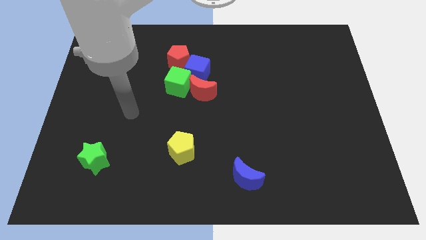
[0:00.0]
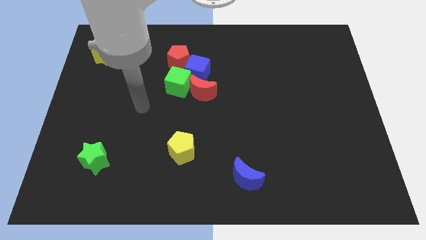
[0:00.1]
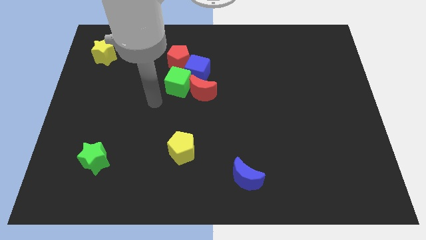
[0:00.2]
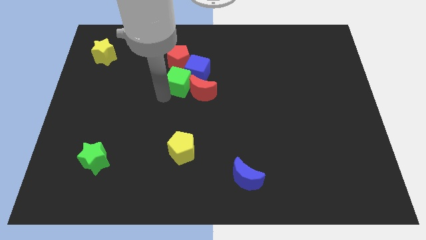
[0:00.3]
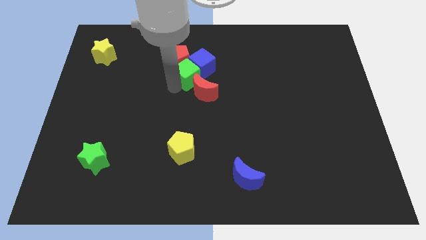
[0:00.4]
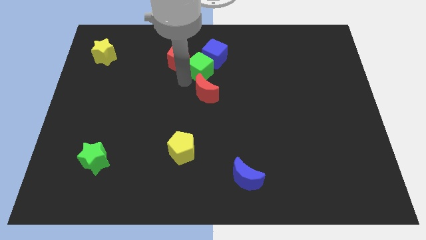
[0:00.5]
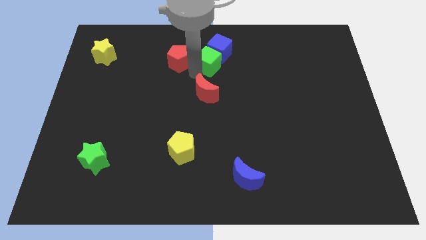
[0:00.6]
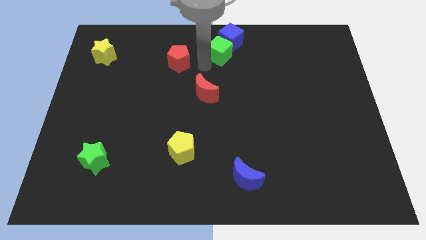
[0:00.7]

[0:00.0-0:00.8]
separate the blue cube from the group

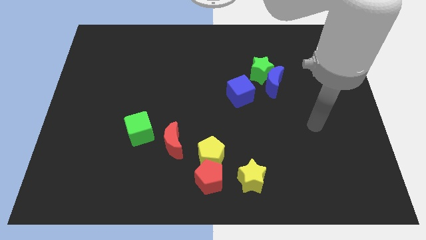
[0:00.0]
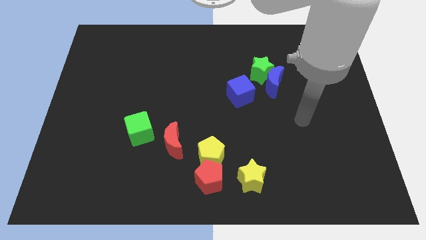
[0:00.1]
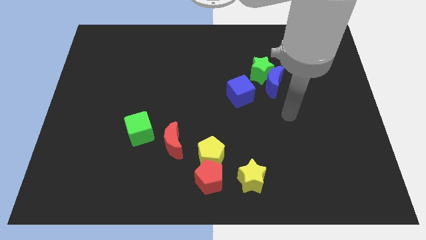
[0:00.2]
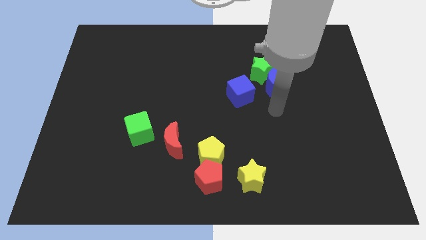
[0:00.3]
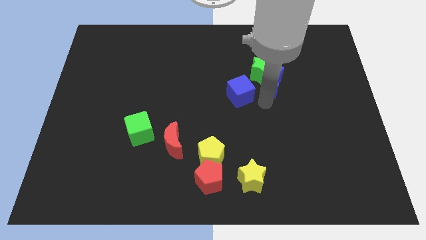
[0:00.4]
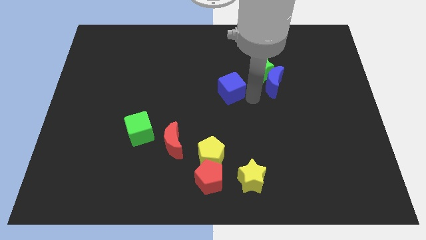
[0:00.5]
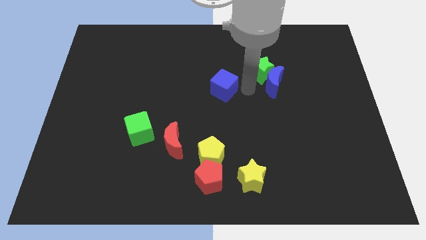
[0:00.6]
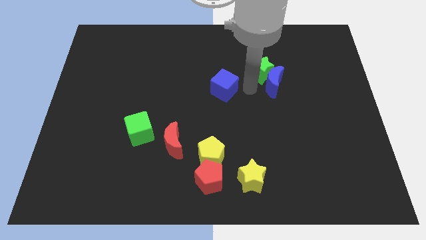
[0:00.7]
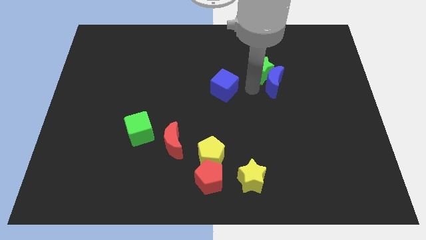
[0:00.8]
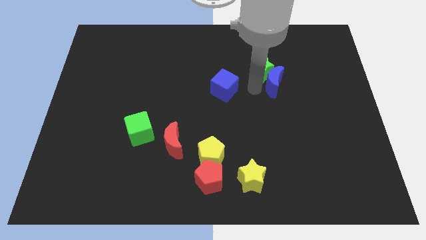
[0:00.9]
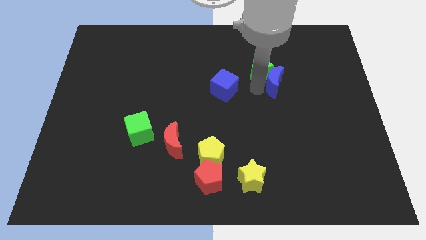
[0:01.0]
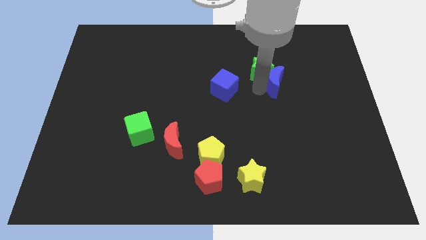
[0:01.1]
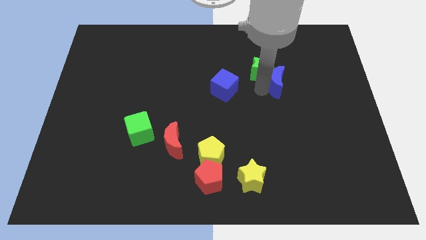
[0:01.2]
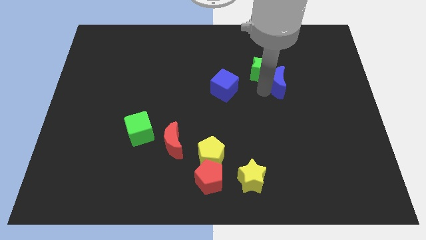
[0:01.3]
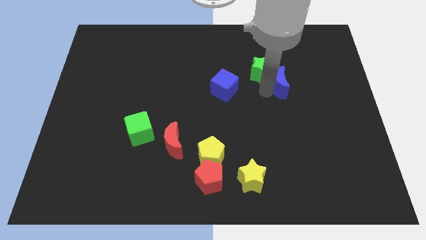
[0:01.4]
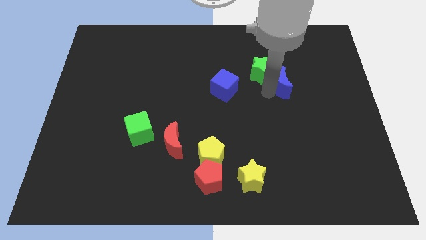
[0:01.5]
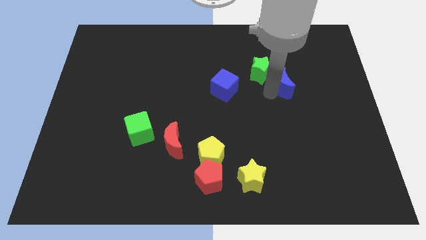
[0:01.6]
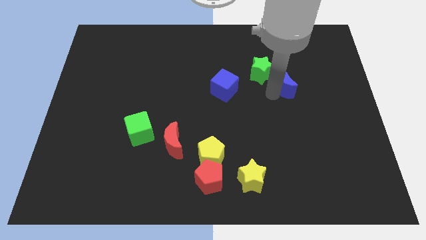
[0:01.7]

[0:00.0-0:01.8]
pull the blue moon apart from the green star and blue cube

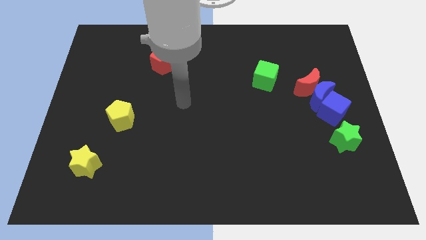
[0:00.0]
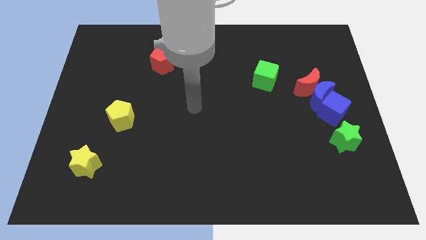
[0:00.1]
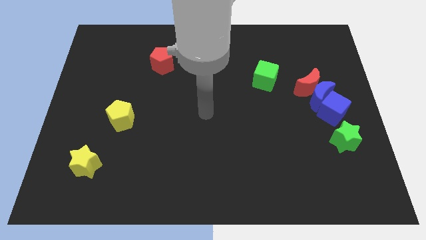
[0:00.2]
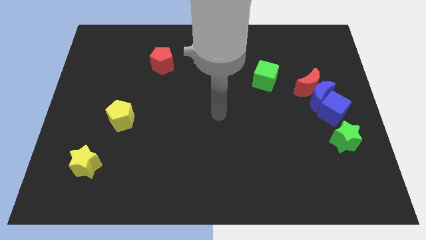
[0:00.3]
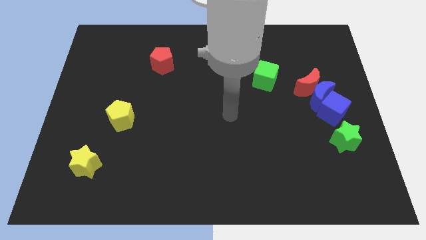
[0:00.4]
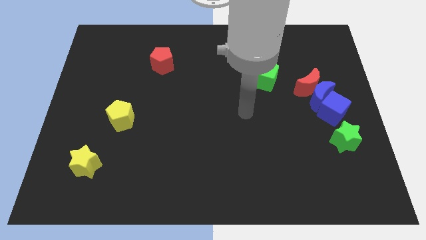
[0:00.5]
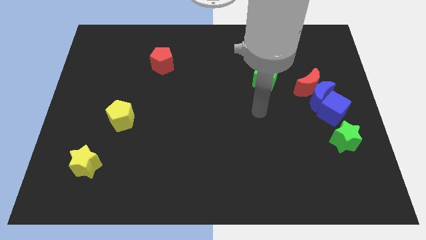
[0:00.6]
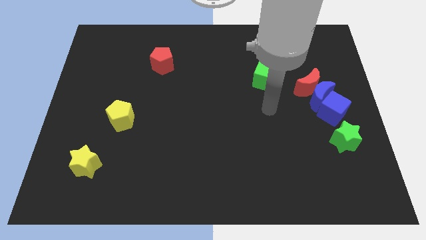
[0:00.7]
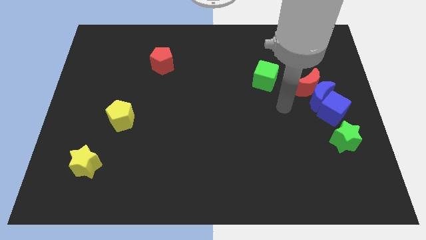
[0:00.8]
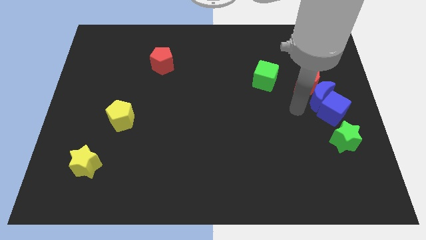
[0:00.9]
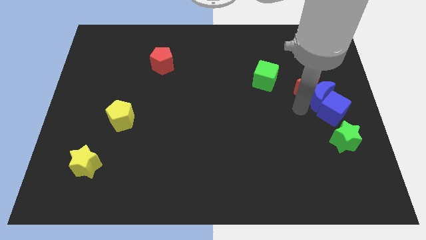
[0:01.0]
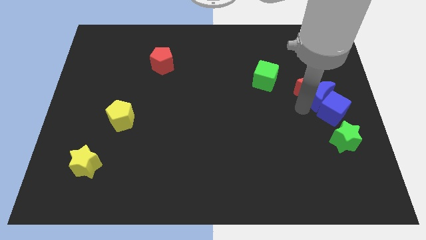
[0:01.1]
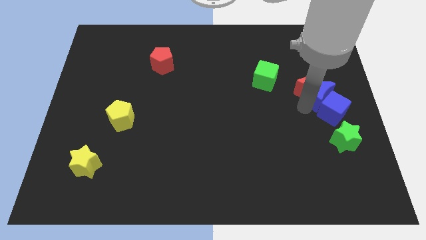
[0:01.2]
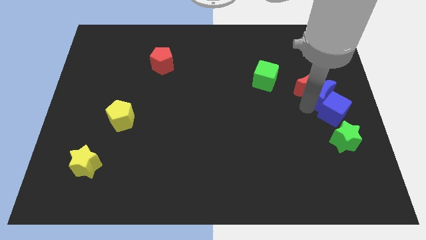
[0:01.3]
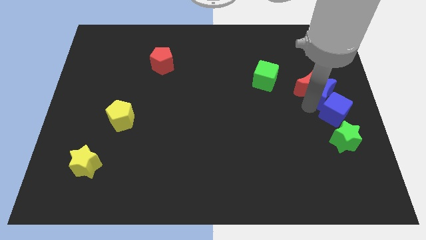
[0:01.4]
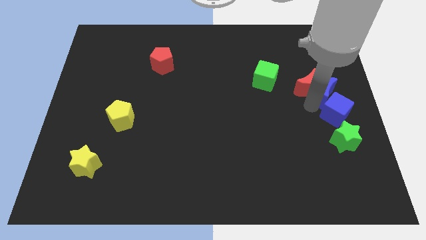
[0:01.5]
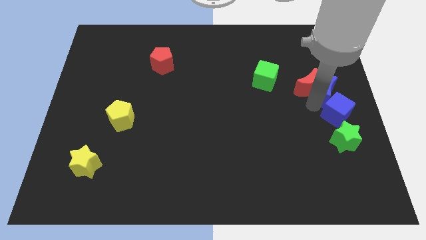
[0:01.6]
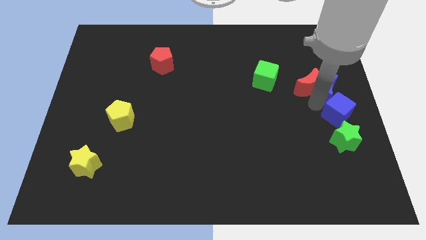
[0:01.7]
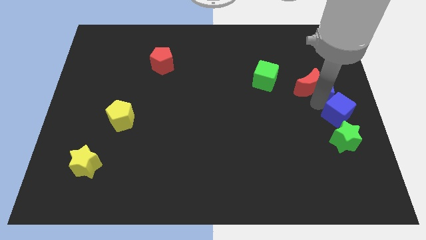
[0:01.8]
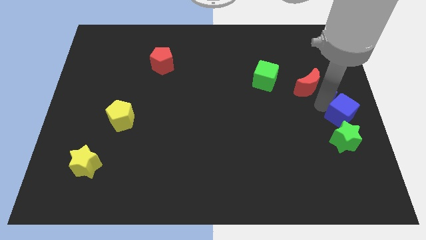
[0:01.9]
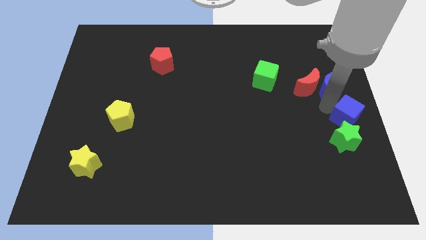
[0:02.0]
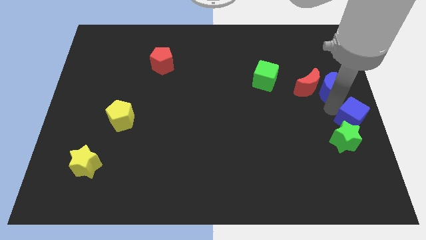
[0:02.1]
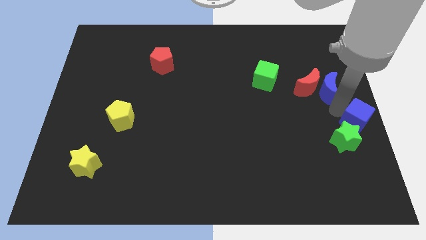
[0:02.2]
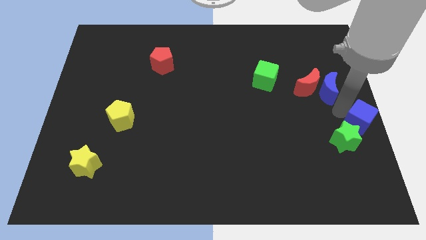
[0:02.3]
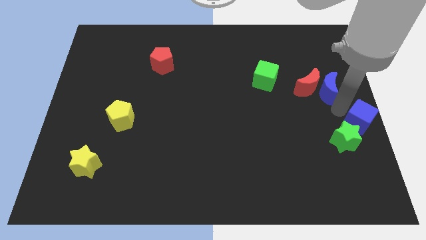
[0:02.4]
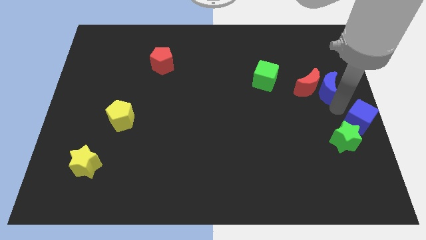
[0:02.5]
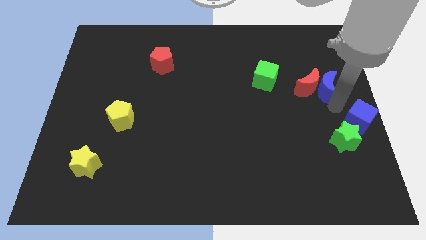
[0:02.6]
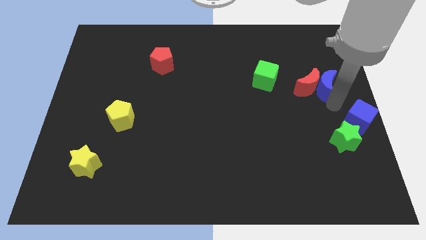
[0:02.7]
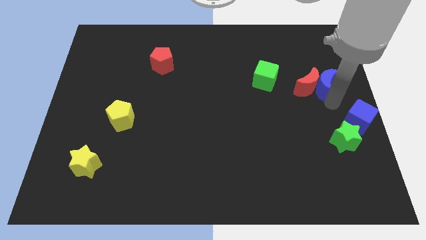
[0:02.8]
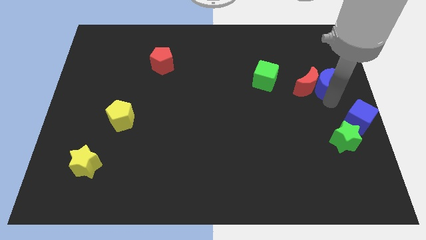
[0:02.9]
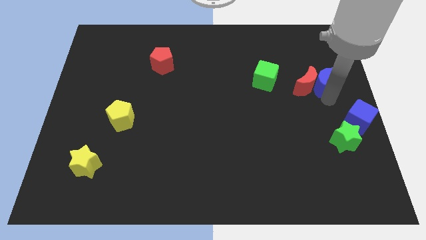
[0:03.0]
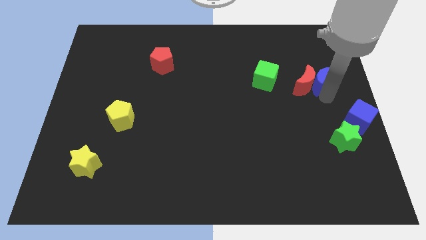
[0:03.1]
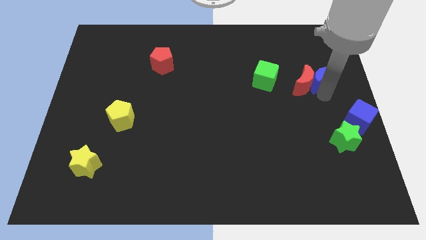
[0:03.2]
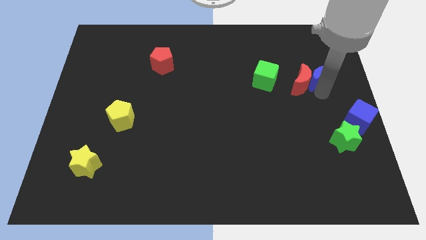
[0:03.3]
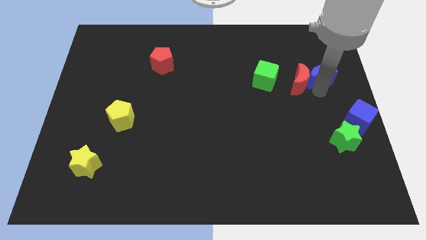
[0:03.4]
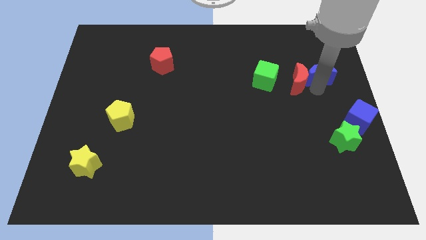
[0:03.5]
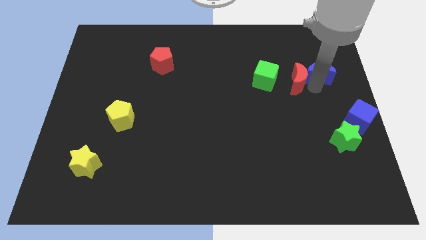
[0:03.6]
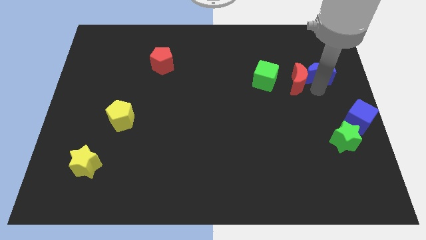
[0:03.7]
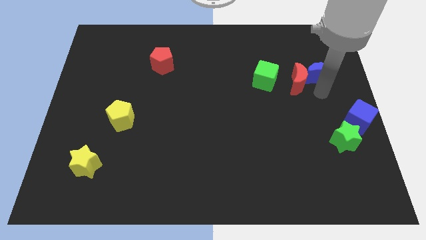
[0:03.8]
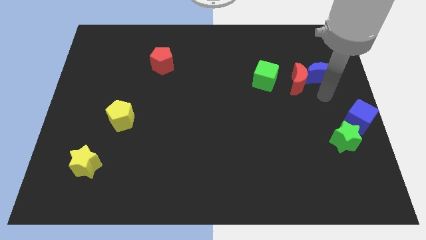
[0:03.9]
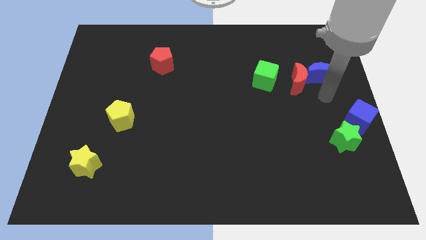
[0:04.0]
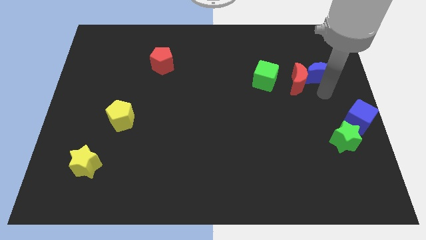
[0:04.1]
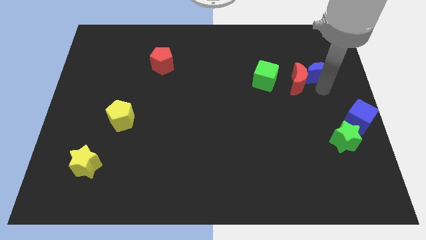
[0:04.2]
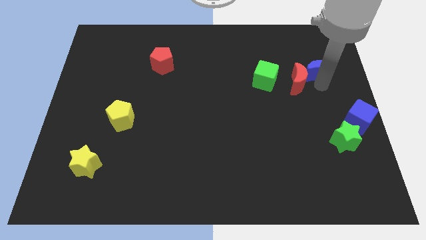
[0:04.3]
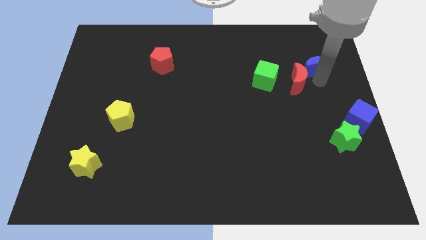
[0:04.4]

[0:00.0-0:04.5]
separate the blue moon from the red moon and blue cube

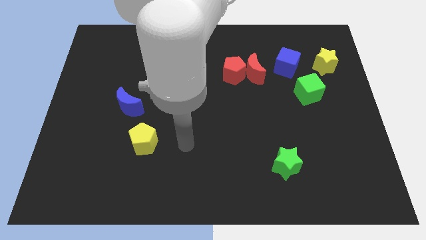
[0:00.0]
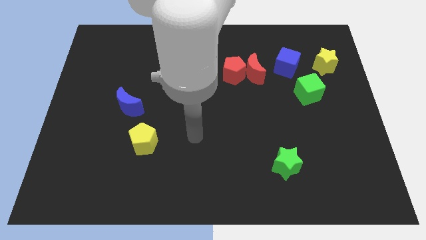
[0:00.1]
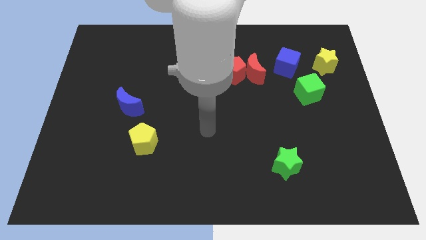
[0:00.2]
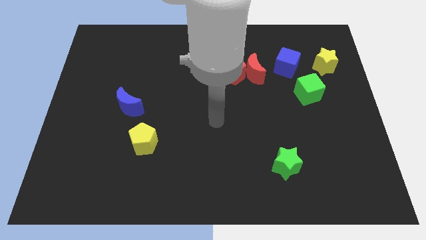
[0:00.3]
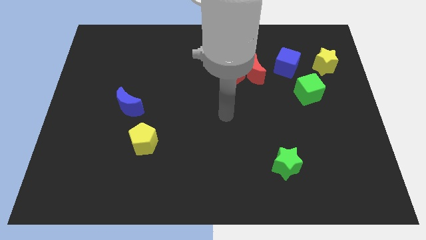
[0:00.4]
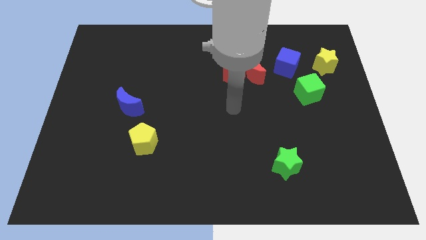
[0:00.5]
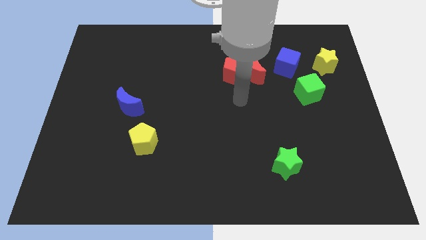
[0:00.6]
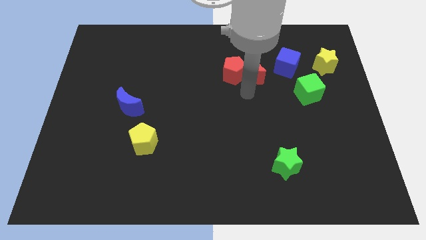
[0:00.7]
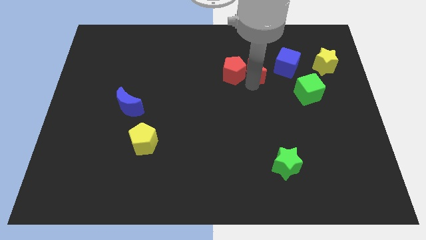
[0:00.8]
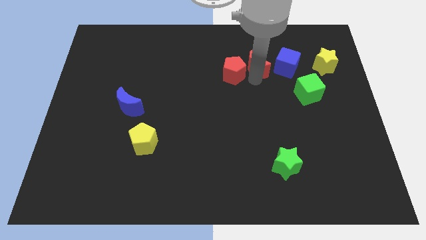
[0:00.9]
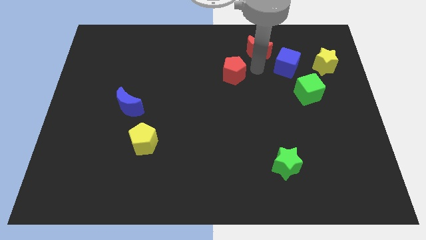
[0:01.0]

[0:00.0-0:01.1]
separate the red pentagon from the red moon

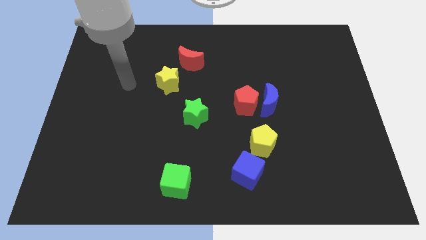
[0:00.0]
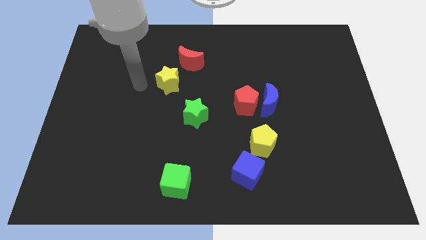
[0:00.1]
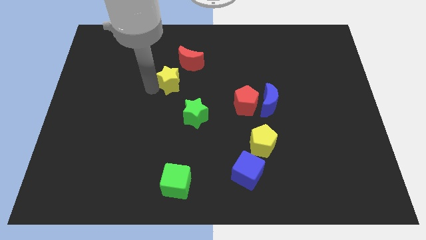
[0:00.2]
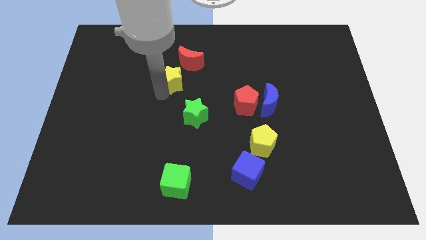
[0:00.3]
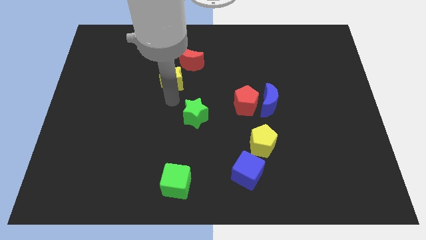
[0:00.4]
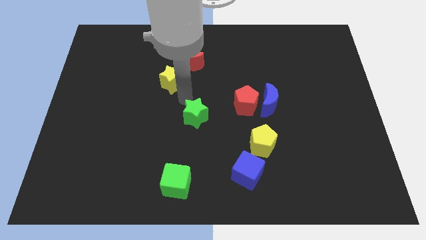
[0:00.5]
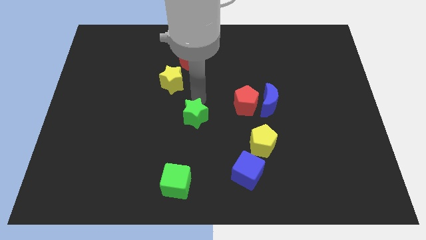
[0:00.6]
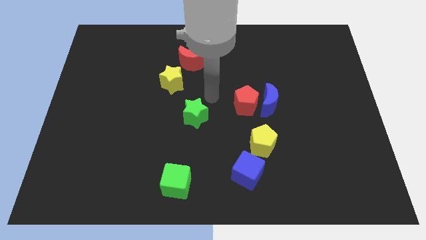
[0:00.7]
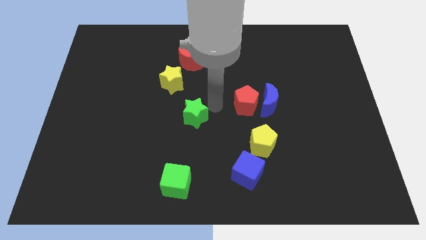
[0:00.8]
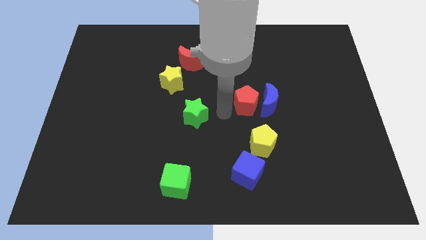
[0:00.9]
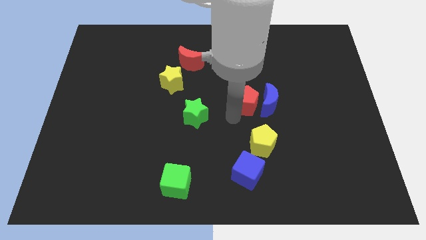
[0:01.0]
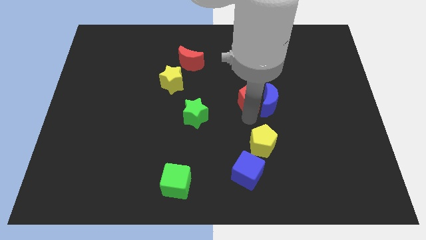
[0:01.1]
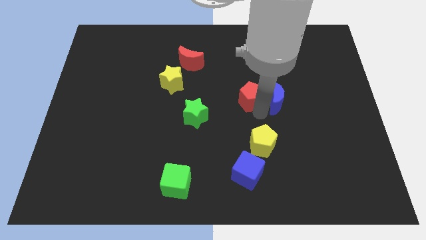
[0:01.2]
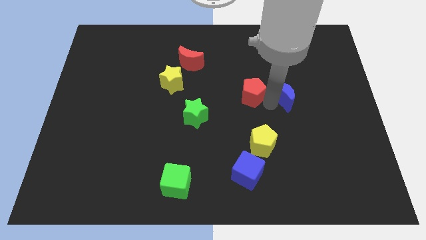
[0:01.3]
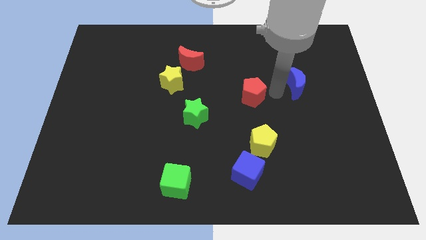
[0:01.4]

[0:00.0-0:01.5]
separate the red pentagon from the blue moon
